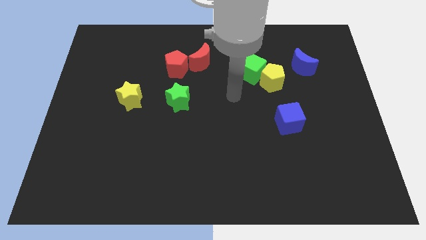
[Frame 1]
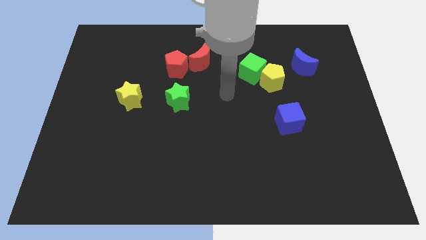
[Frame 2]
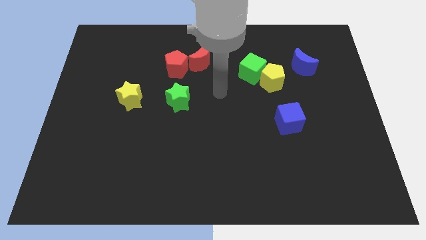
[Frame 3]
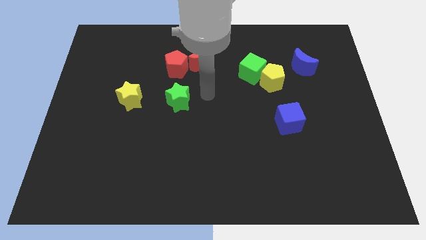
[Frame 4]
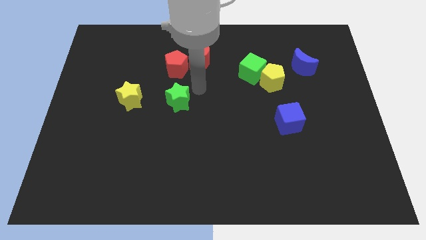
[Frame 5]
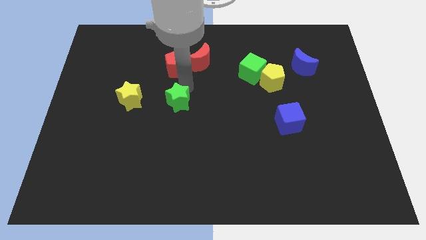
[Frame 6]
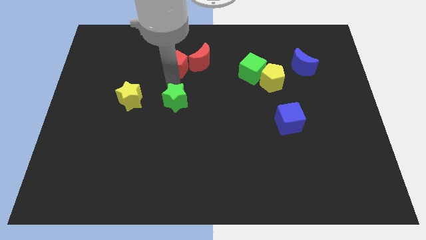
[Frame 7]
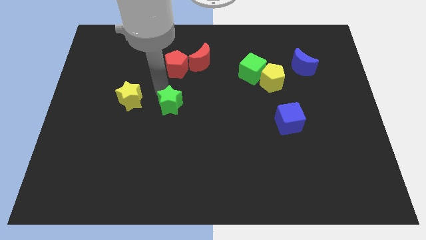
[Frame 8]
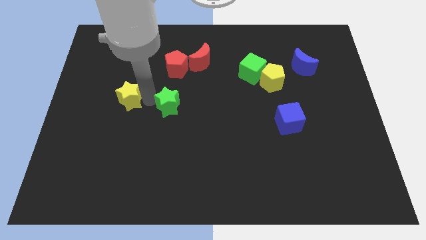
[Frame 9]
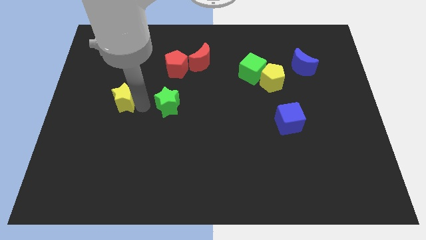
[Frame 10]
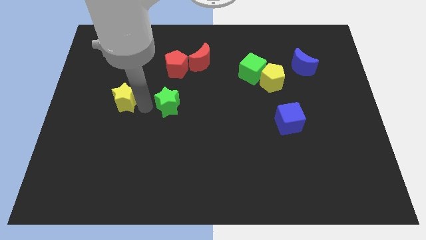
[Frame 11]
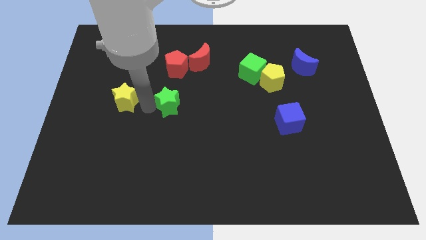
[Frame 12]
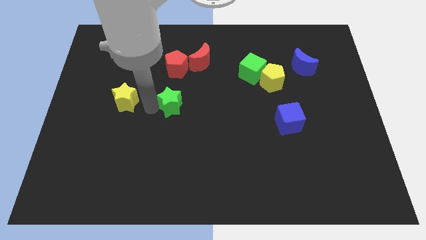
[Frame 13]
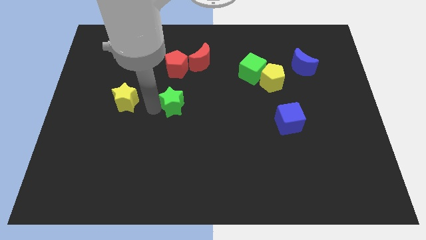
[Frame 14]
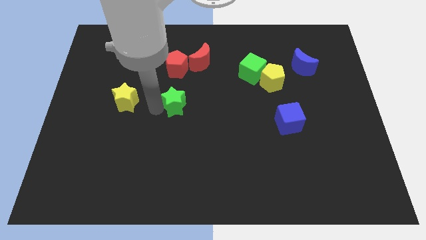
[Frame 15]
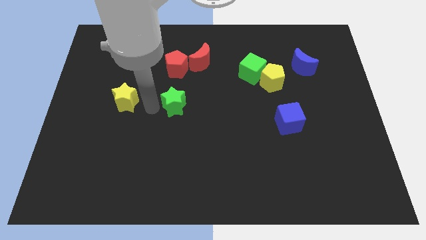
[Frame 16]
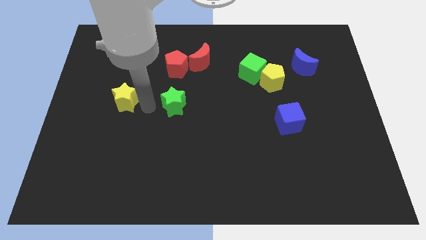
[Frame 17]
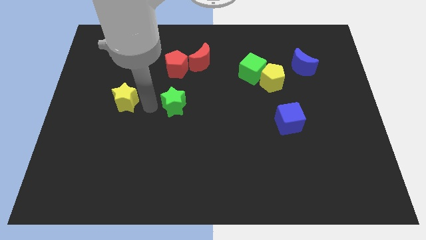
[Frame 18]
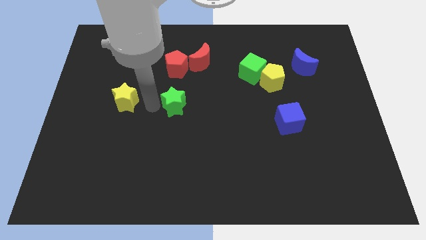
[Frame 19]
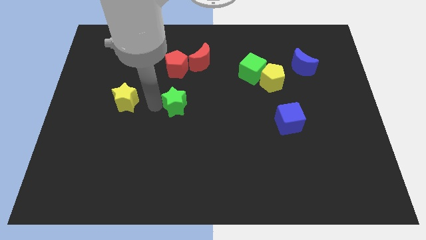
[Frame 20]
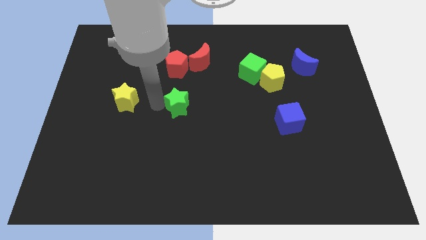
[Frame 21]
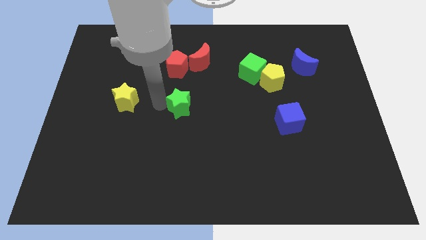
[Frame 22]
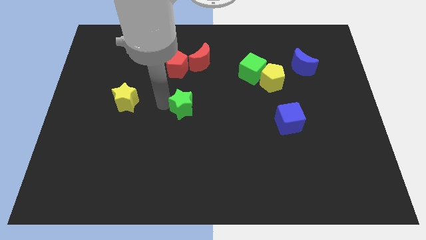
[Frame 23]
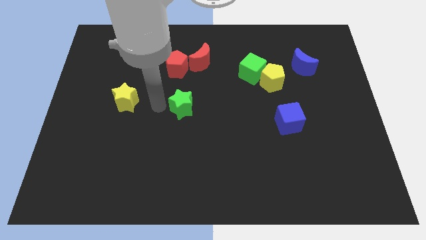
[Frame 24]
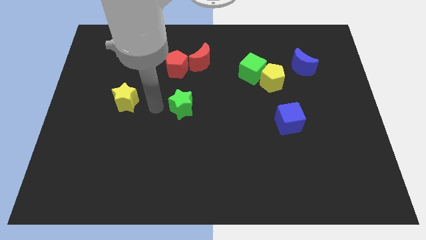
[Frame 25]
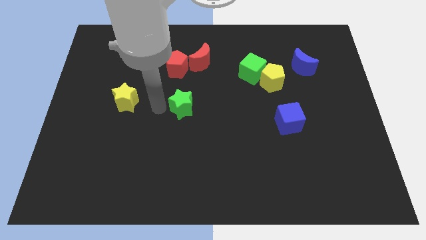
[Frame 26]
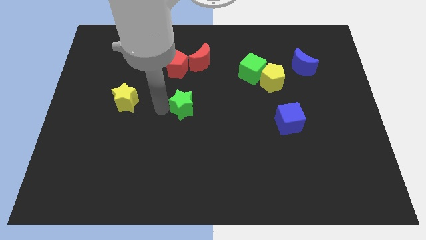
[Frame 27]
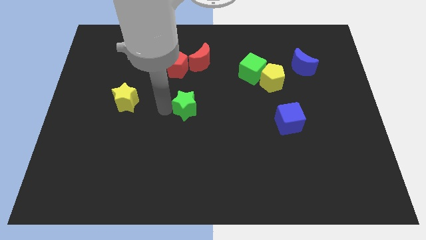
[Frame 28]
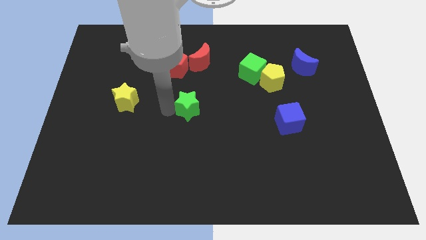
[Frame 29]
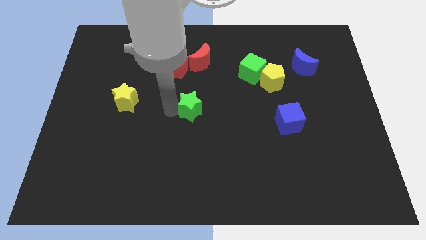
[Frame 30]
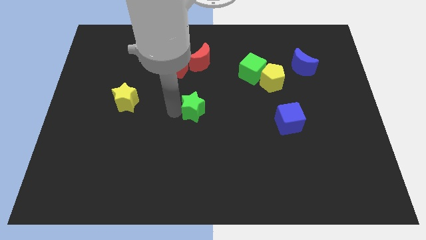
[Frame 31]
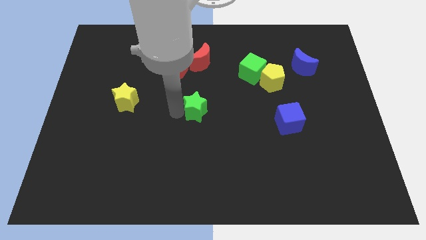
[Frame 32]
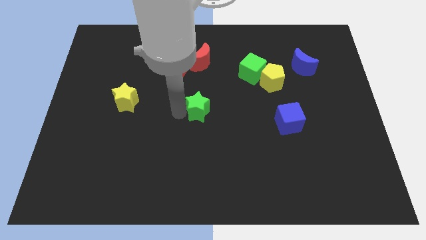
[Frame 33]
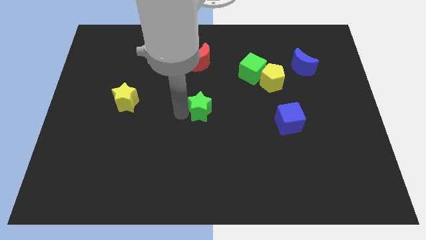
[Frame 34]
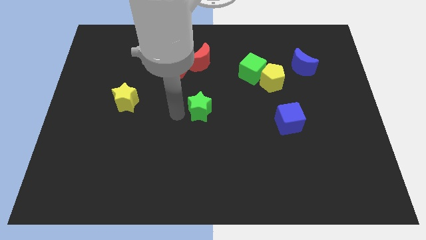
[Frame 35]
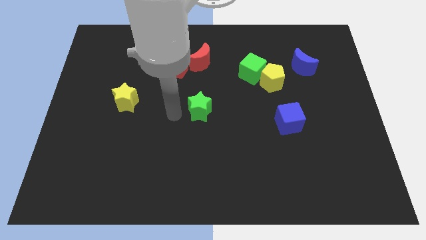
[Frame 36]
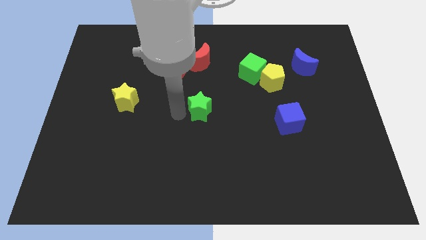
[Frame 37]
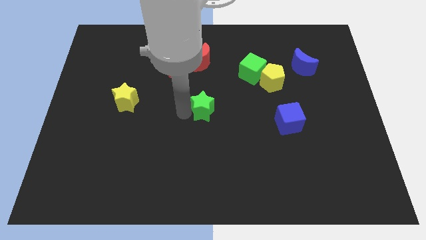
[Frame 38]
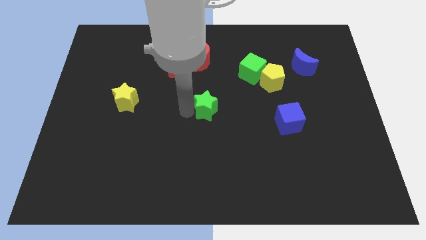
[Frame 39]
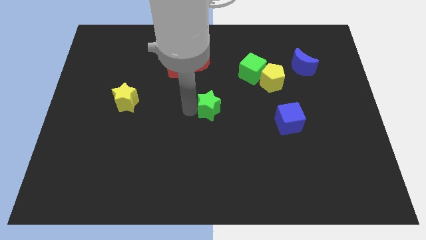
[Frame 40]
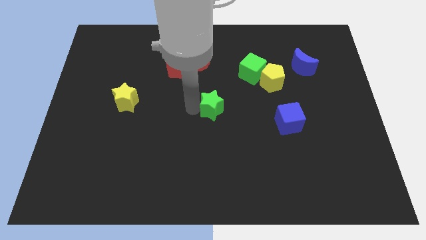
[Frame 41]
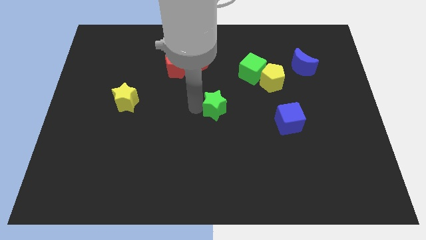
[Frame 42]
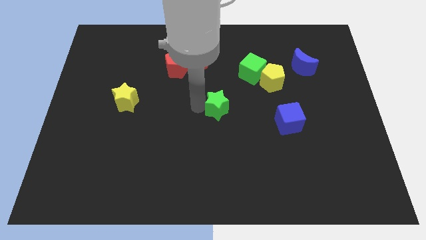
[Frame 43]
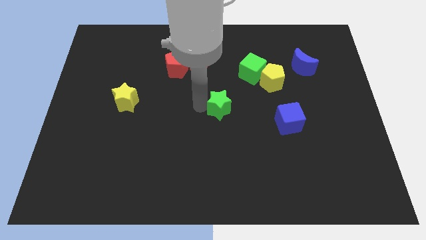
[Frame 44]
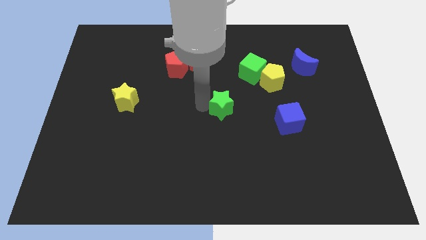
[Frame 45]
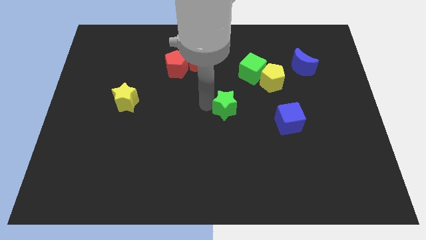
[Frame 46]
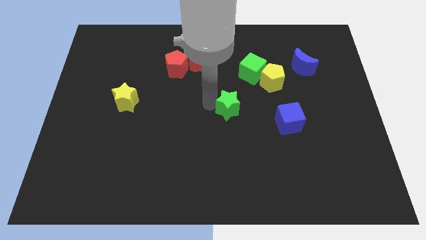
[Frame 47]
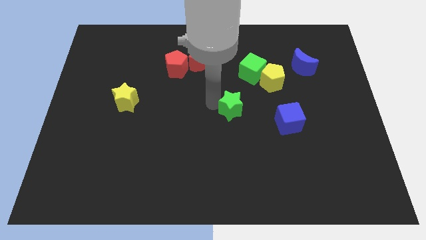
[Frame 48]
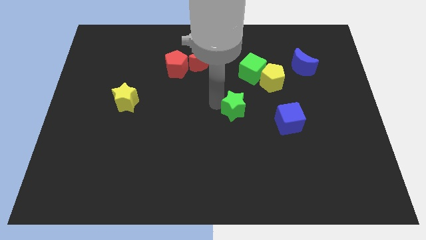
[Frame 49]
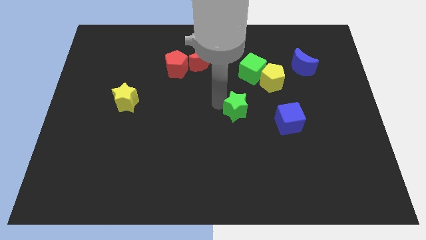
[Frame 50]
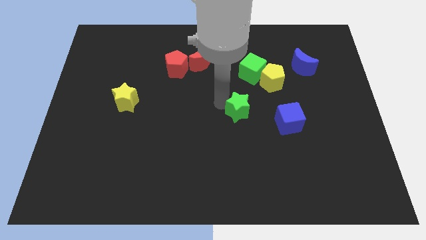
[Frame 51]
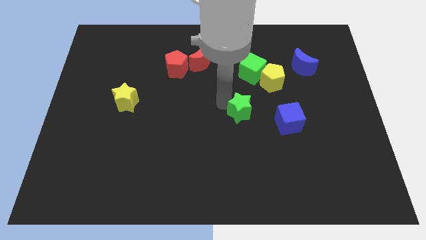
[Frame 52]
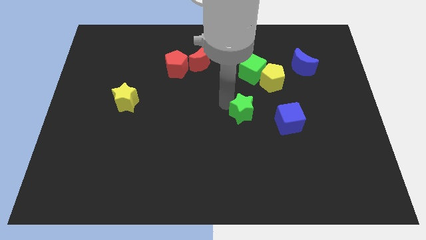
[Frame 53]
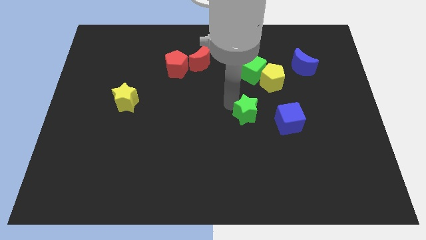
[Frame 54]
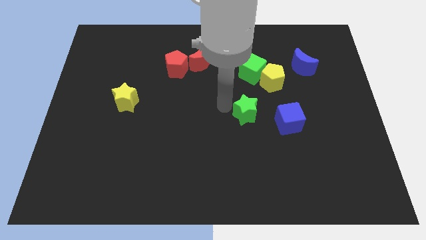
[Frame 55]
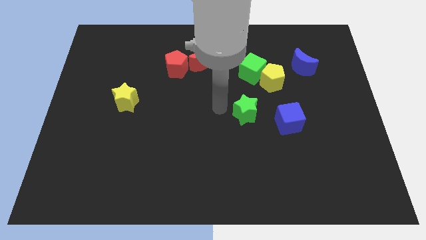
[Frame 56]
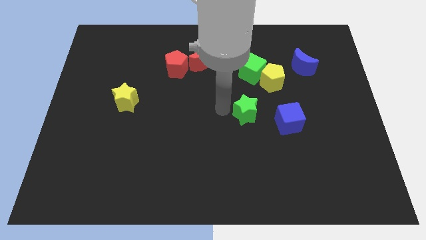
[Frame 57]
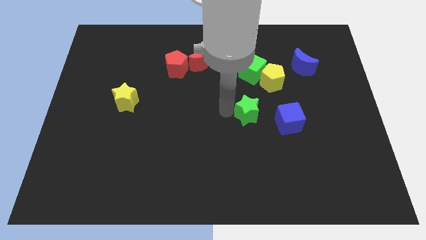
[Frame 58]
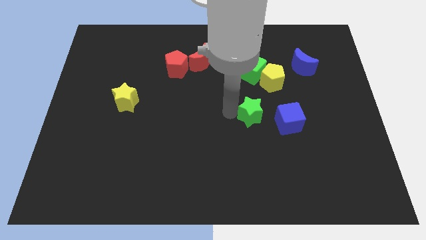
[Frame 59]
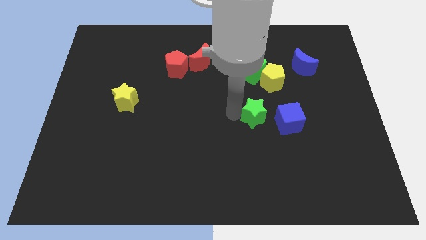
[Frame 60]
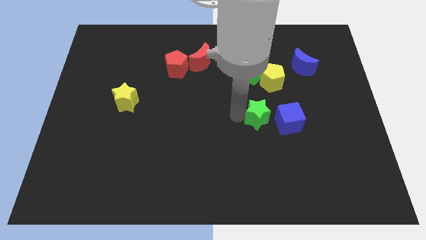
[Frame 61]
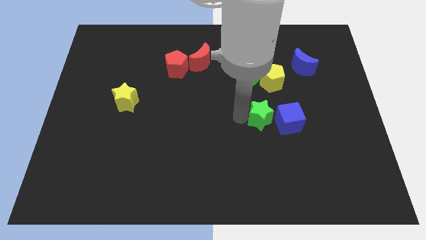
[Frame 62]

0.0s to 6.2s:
put the green star towards the blue cube

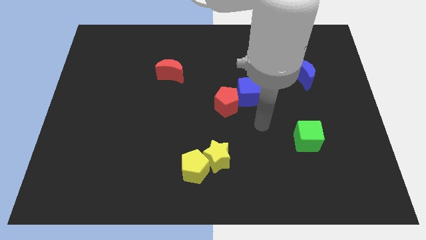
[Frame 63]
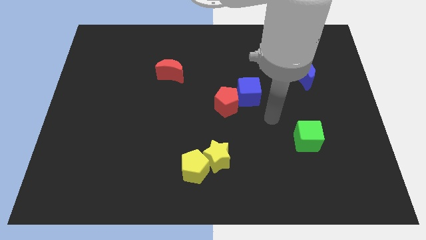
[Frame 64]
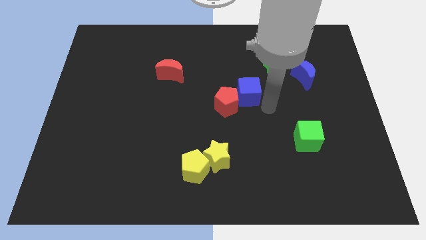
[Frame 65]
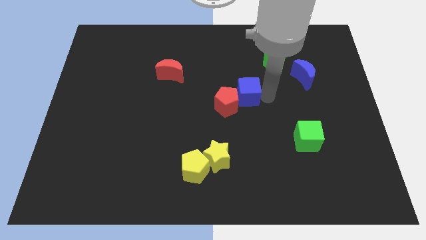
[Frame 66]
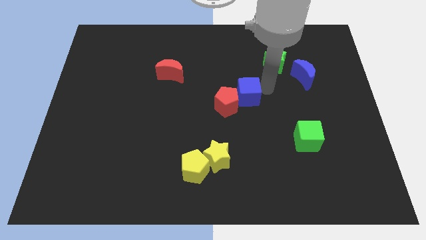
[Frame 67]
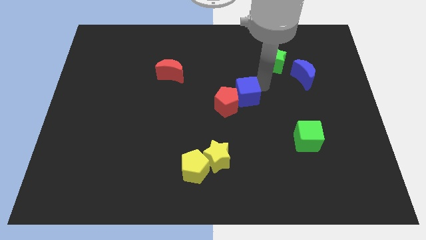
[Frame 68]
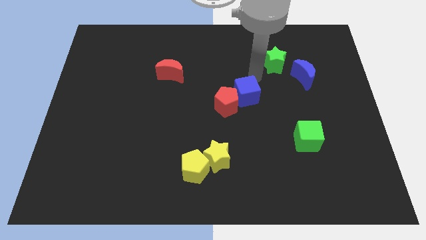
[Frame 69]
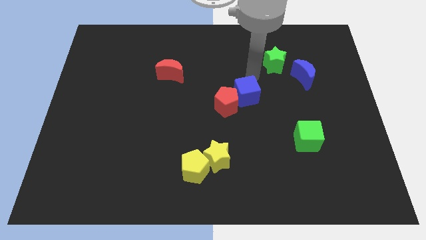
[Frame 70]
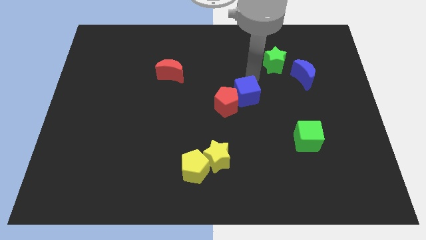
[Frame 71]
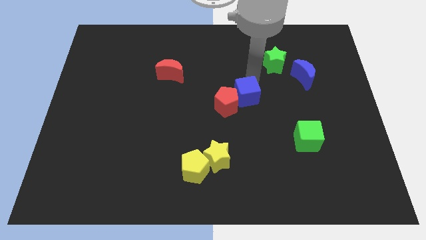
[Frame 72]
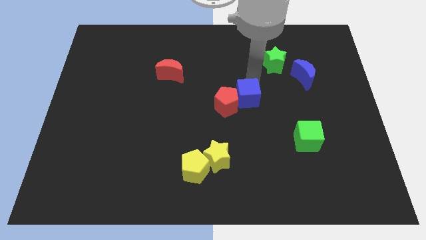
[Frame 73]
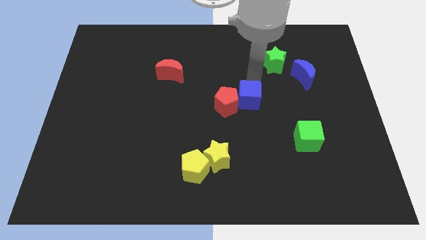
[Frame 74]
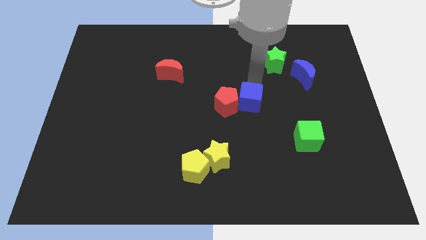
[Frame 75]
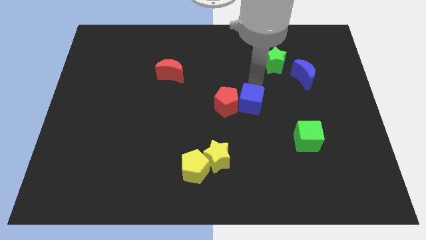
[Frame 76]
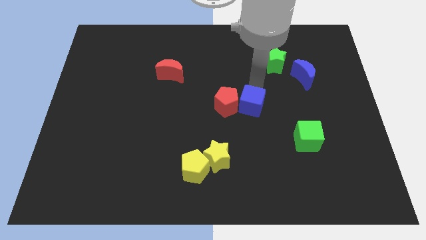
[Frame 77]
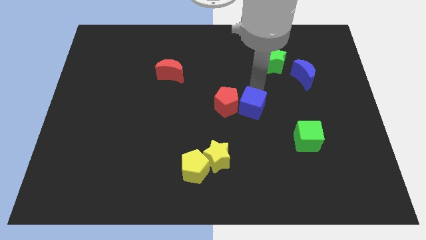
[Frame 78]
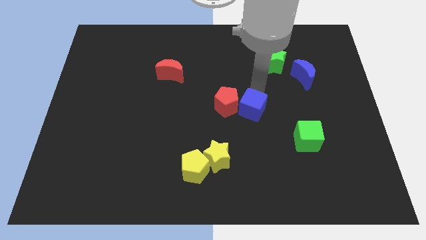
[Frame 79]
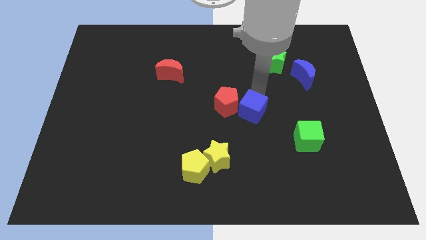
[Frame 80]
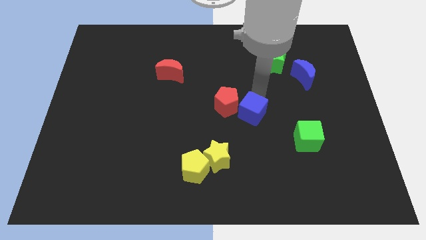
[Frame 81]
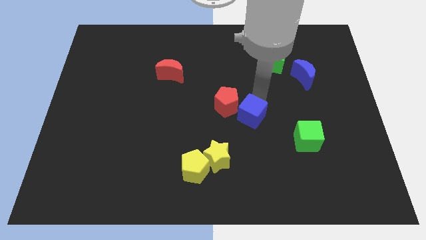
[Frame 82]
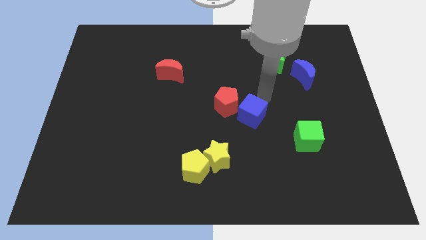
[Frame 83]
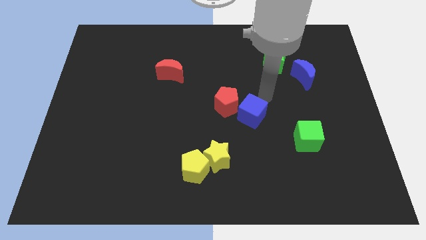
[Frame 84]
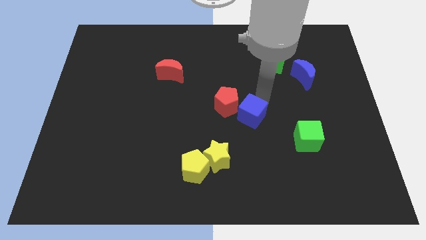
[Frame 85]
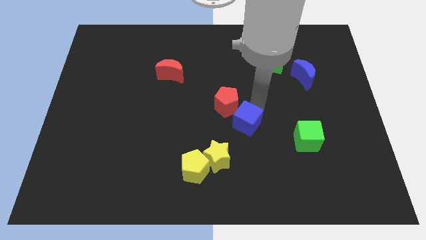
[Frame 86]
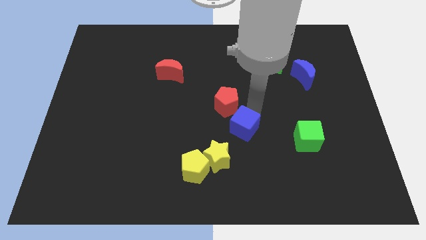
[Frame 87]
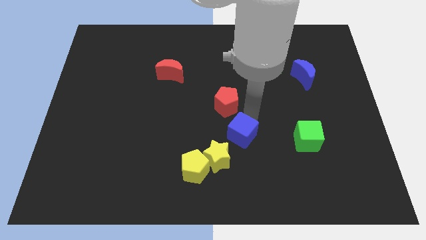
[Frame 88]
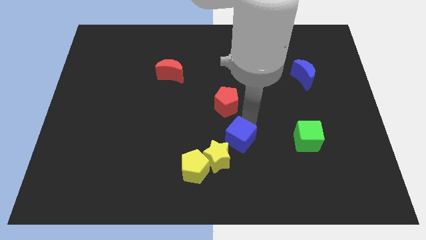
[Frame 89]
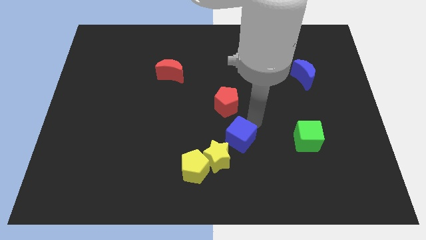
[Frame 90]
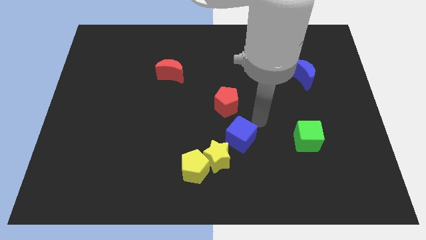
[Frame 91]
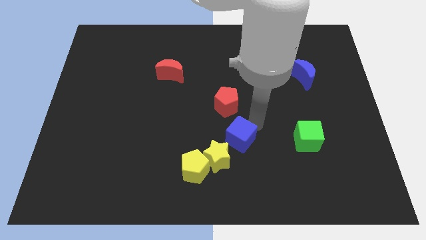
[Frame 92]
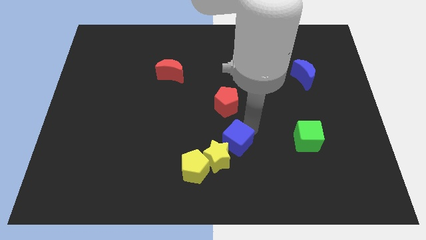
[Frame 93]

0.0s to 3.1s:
push the blue cube towards the yellow star
